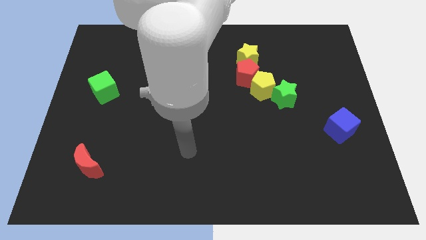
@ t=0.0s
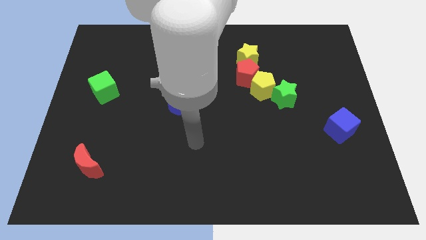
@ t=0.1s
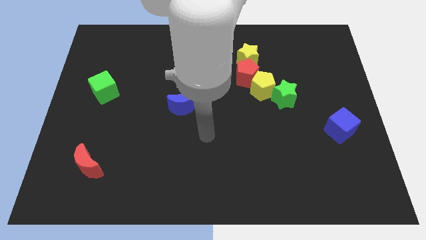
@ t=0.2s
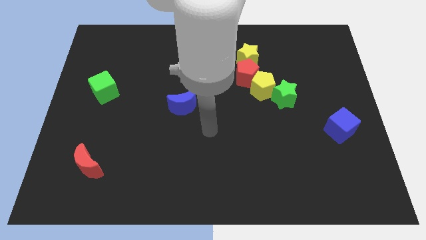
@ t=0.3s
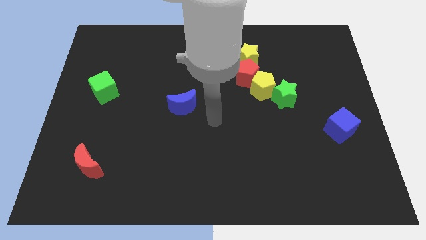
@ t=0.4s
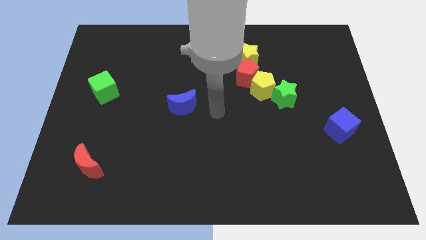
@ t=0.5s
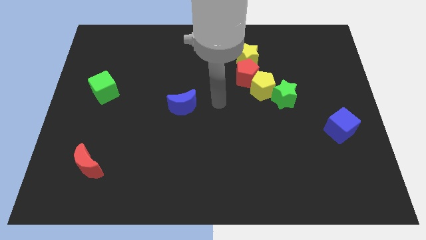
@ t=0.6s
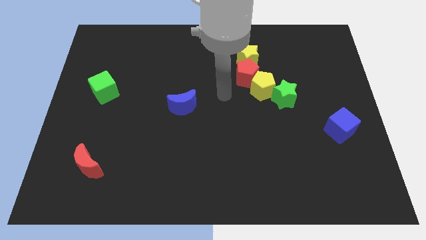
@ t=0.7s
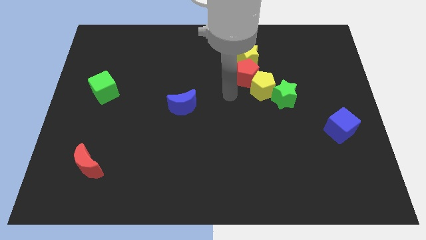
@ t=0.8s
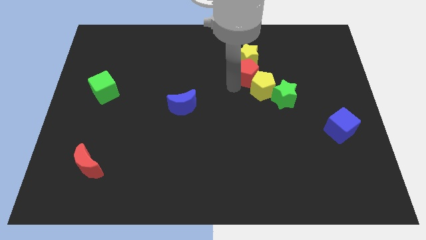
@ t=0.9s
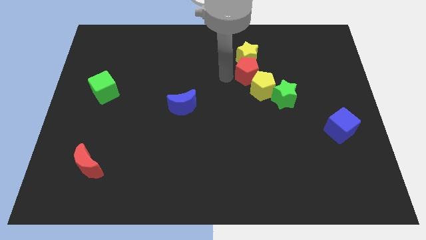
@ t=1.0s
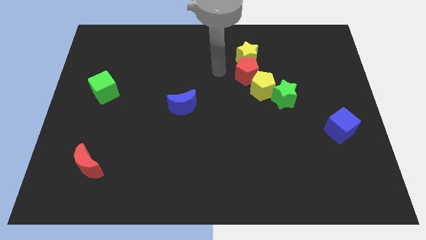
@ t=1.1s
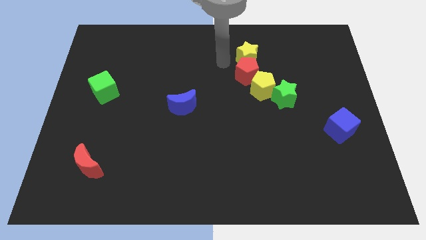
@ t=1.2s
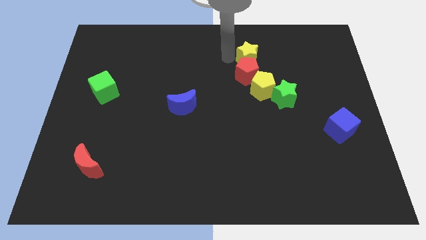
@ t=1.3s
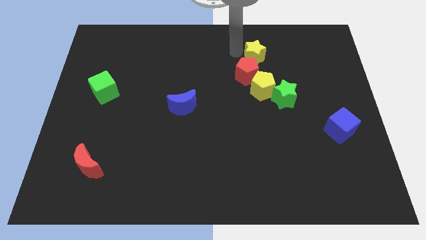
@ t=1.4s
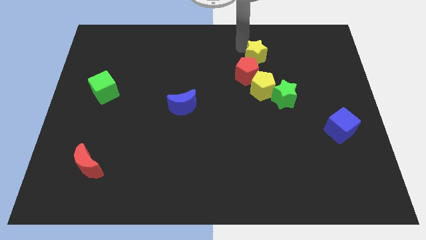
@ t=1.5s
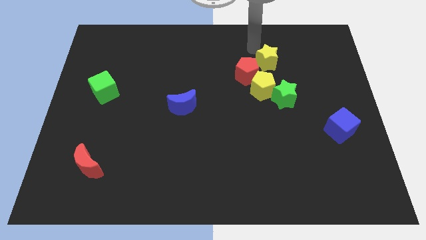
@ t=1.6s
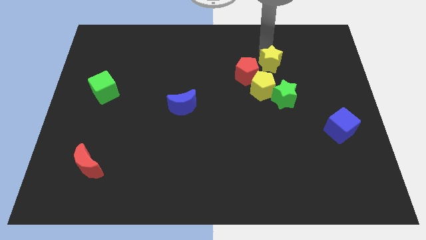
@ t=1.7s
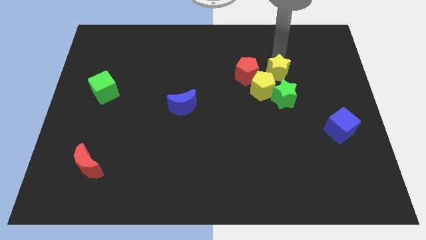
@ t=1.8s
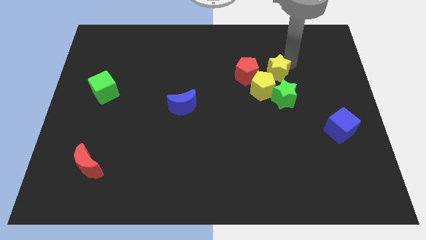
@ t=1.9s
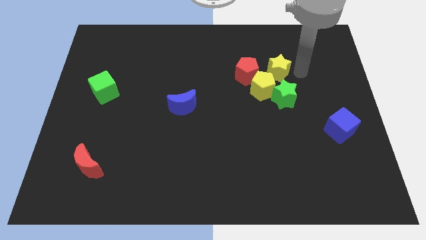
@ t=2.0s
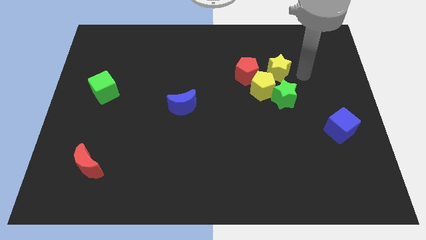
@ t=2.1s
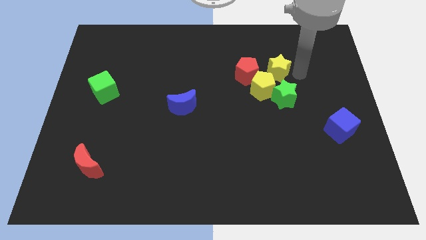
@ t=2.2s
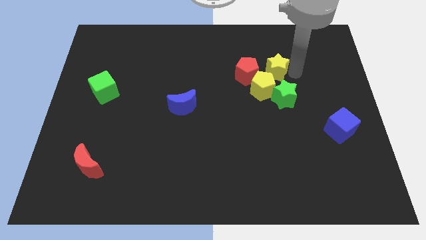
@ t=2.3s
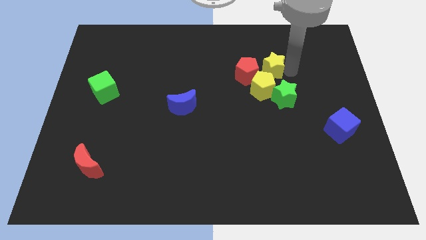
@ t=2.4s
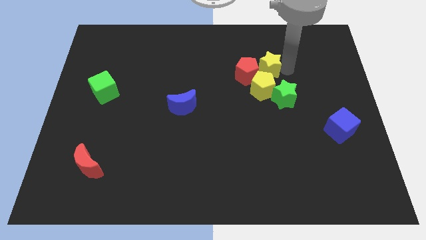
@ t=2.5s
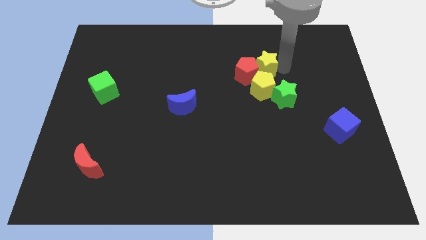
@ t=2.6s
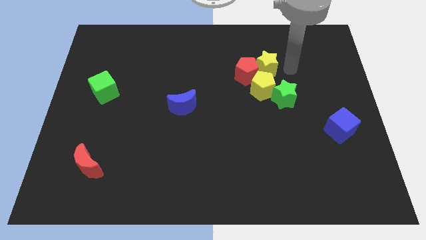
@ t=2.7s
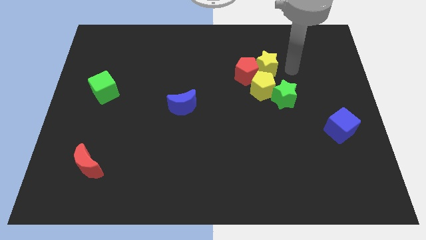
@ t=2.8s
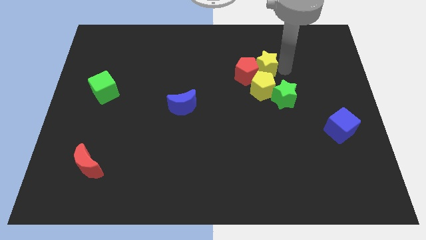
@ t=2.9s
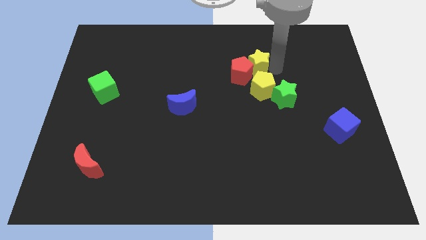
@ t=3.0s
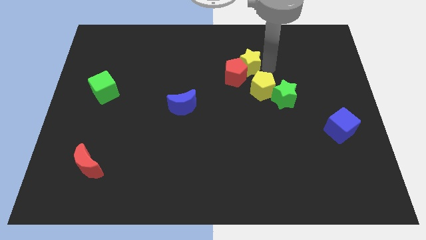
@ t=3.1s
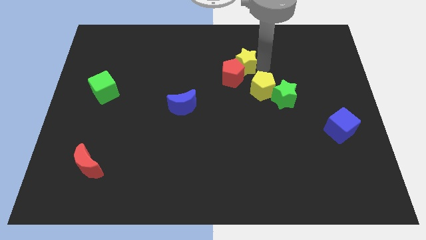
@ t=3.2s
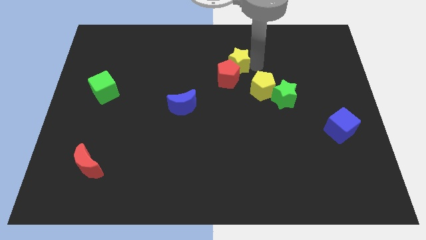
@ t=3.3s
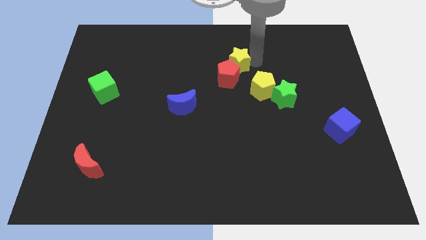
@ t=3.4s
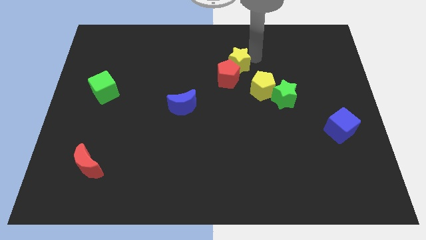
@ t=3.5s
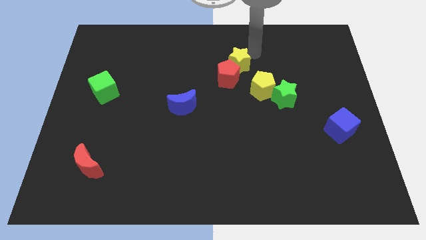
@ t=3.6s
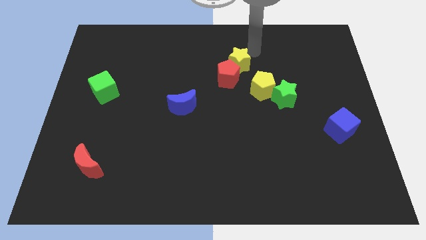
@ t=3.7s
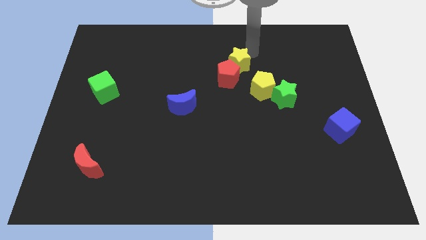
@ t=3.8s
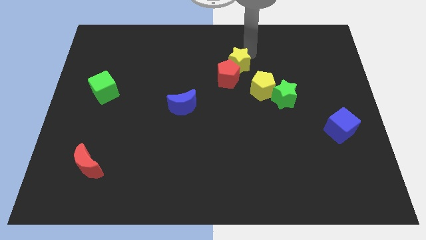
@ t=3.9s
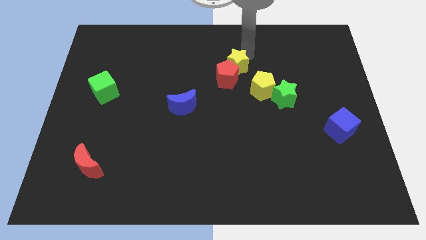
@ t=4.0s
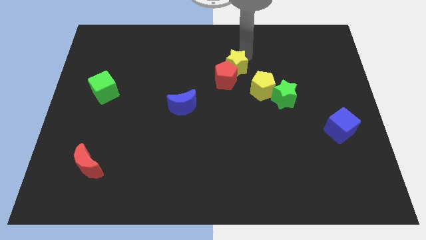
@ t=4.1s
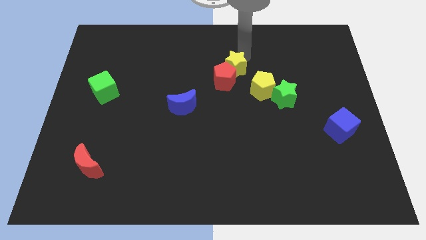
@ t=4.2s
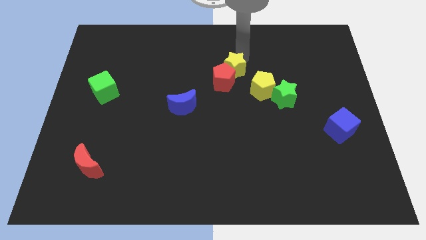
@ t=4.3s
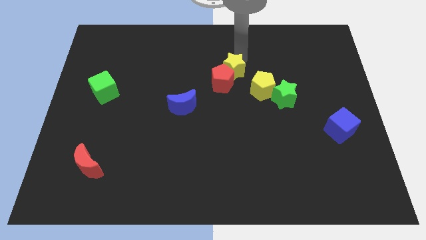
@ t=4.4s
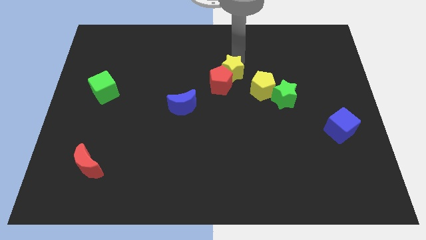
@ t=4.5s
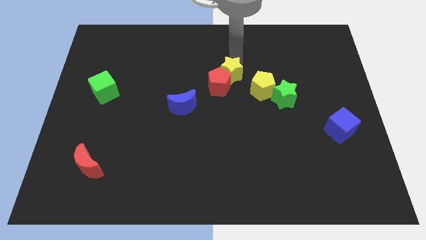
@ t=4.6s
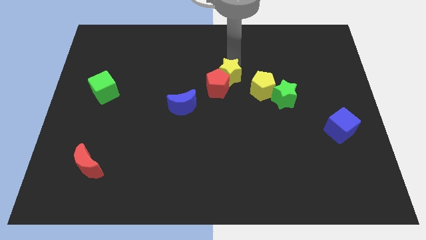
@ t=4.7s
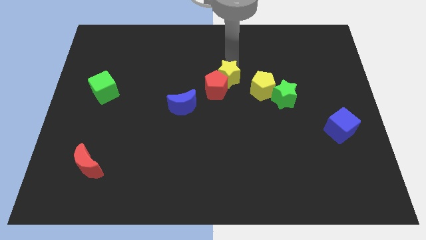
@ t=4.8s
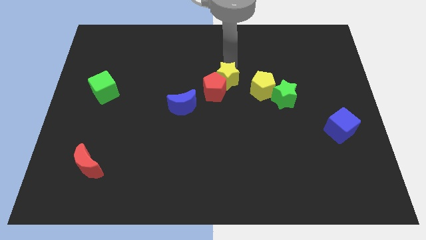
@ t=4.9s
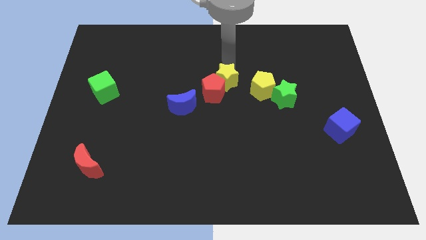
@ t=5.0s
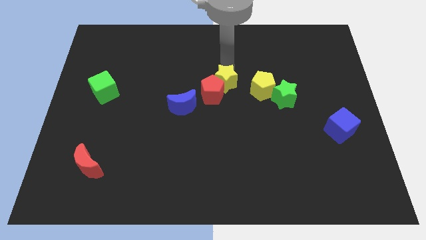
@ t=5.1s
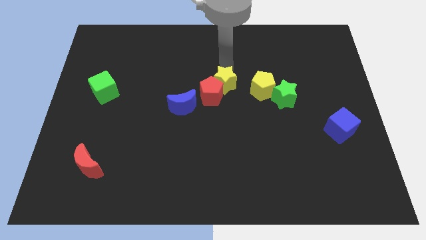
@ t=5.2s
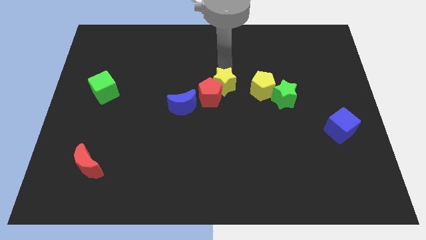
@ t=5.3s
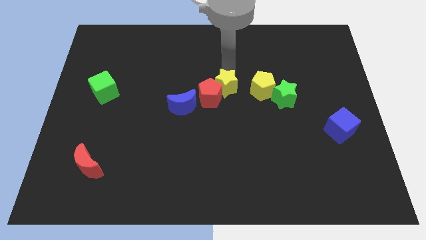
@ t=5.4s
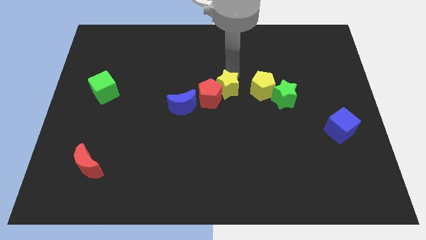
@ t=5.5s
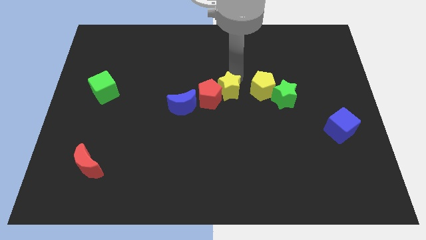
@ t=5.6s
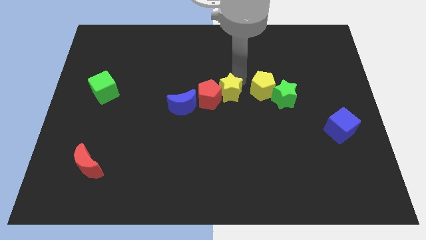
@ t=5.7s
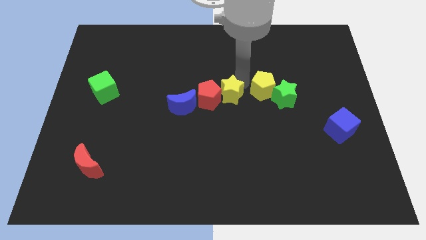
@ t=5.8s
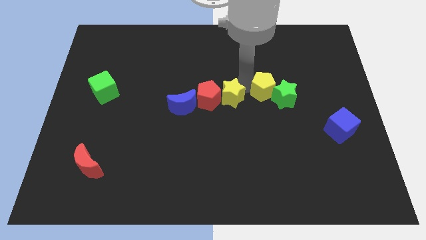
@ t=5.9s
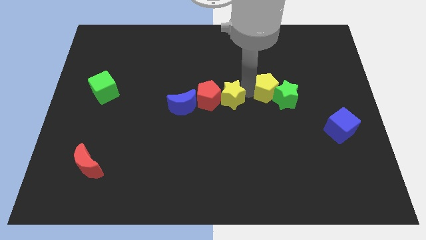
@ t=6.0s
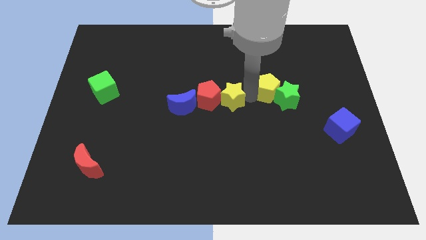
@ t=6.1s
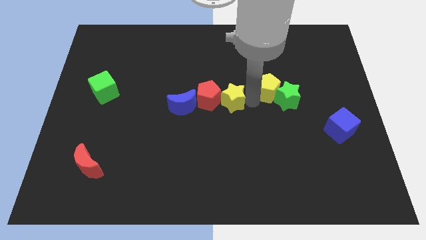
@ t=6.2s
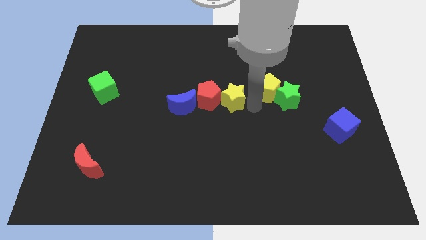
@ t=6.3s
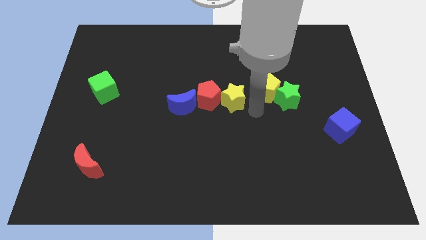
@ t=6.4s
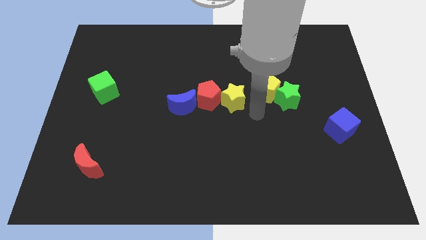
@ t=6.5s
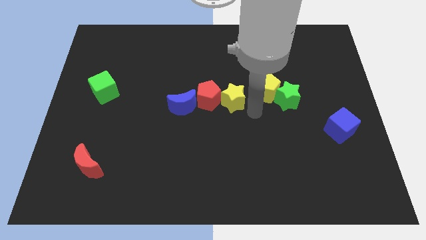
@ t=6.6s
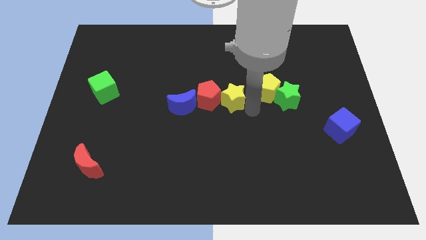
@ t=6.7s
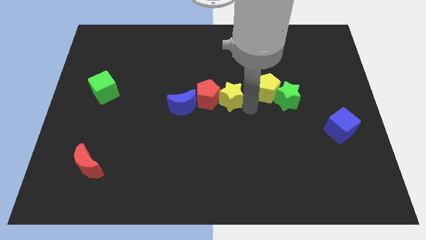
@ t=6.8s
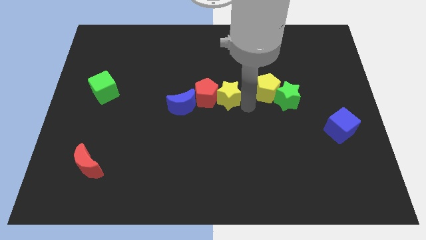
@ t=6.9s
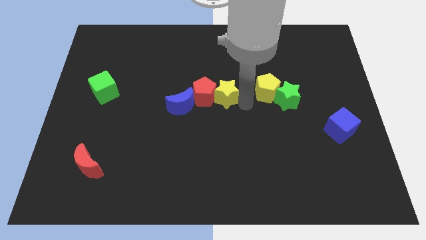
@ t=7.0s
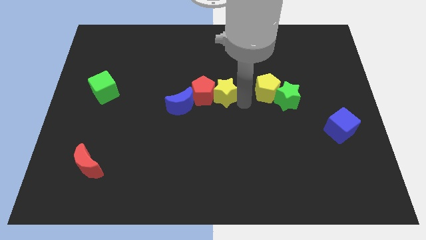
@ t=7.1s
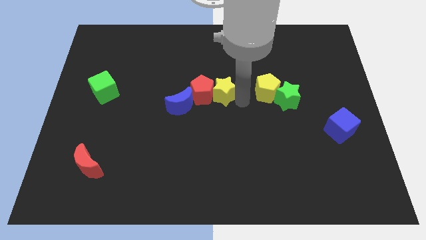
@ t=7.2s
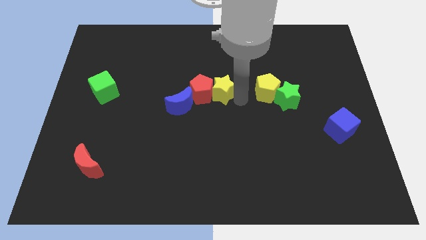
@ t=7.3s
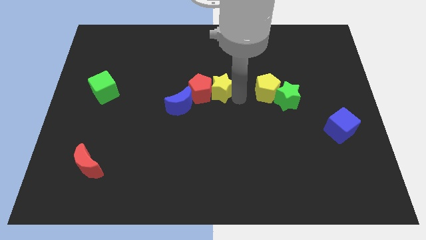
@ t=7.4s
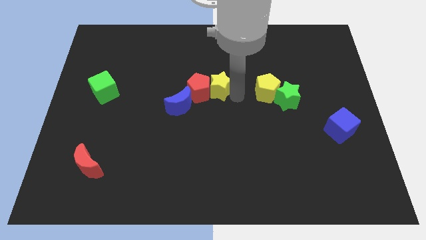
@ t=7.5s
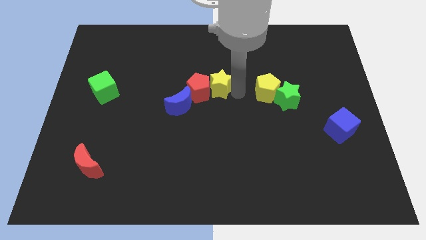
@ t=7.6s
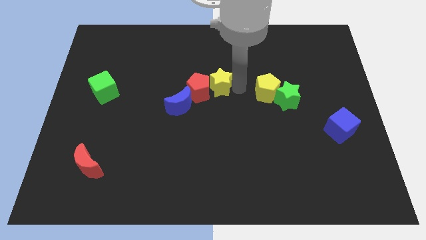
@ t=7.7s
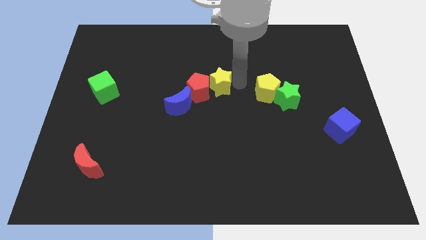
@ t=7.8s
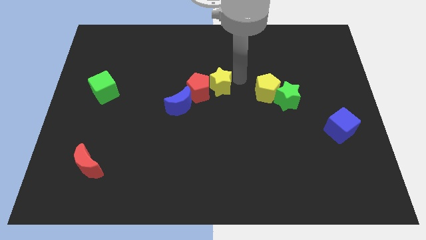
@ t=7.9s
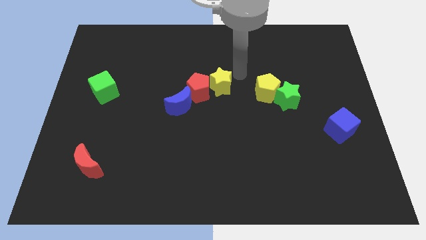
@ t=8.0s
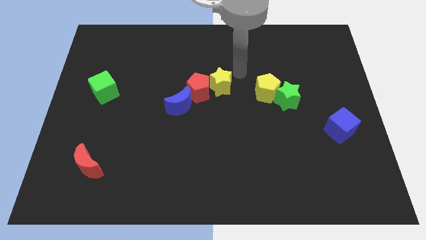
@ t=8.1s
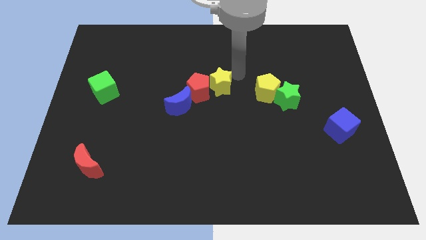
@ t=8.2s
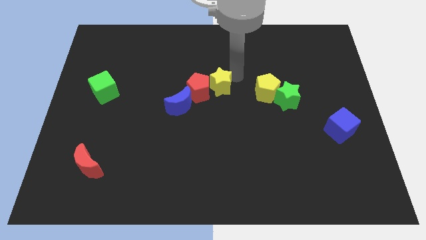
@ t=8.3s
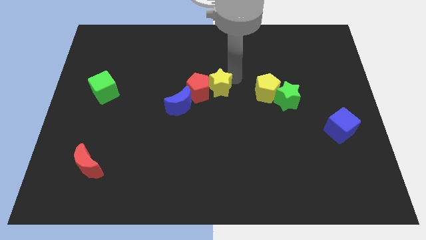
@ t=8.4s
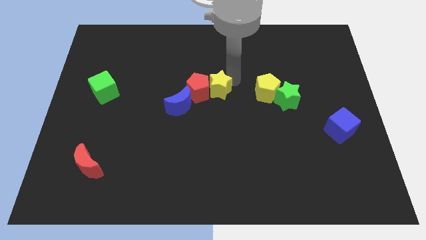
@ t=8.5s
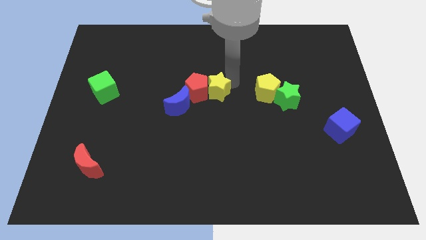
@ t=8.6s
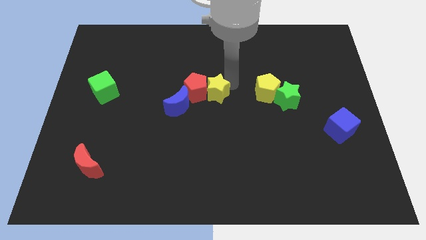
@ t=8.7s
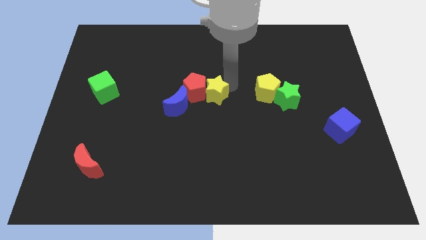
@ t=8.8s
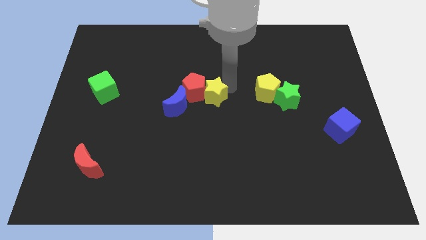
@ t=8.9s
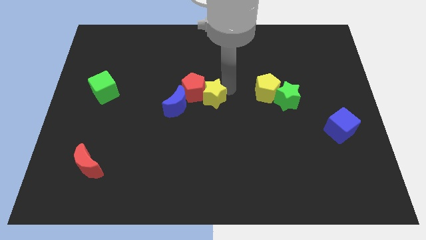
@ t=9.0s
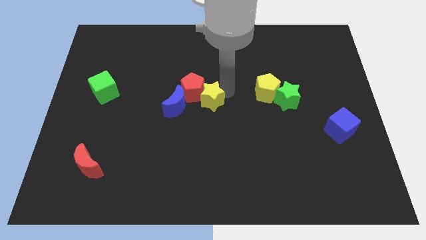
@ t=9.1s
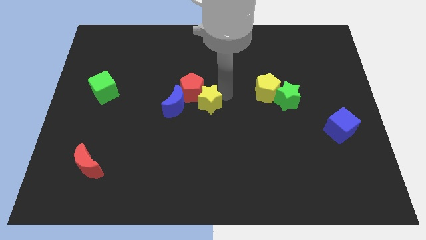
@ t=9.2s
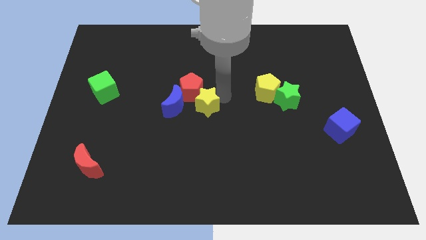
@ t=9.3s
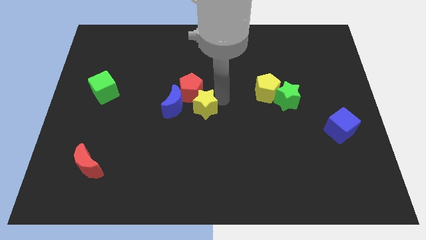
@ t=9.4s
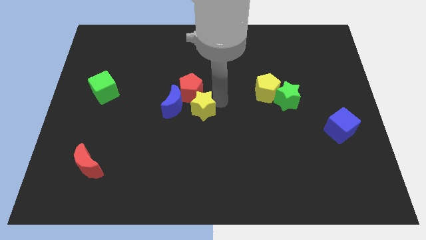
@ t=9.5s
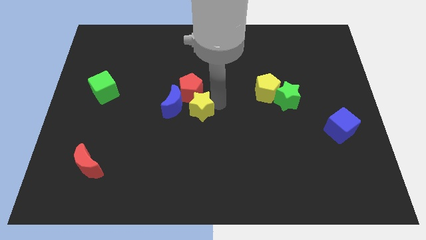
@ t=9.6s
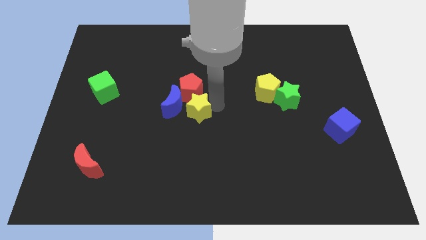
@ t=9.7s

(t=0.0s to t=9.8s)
push the yellow star to the blue moon
